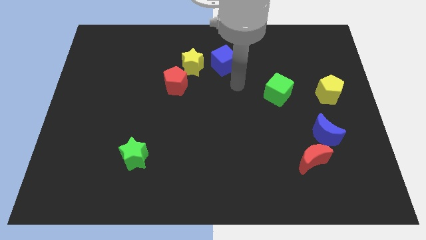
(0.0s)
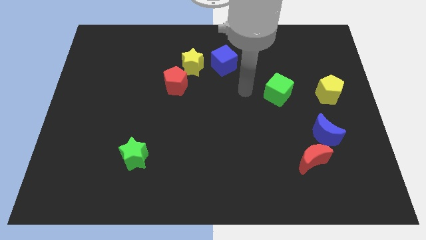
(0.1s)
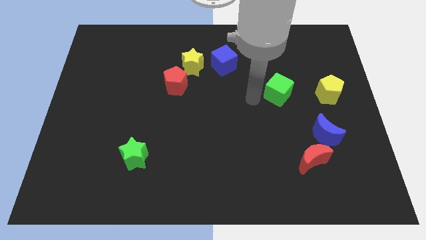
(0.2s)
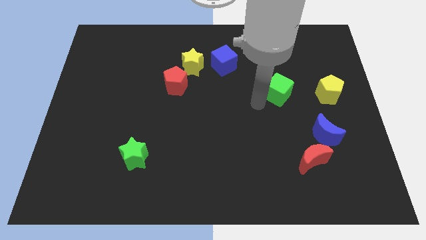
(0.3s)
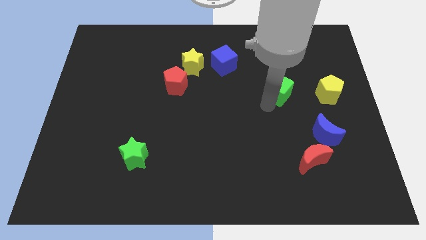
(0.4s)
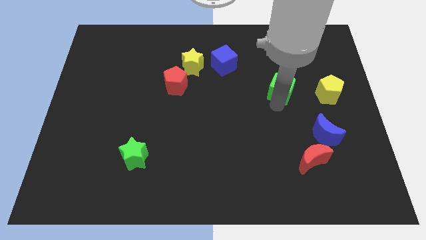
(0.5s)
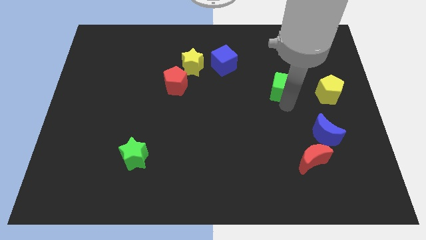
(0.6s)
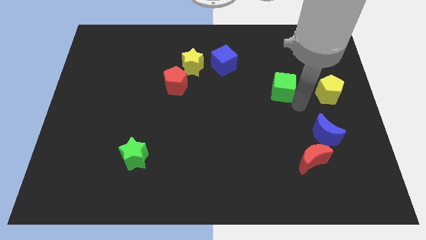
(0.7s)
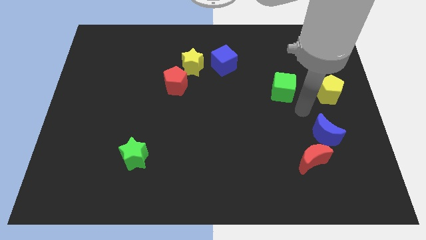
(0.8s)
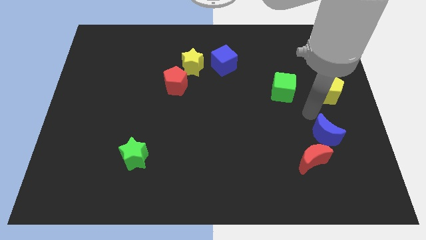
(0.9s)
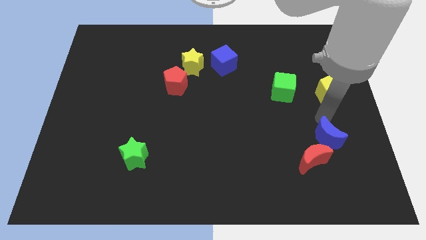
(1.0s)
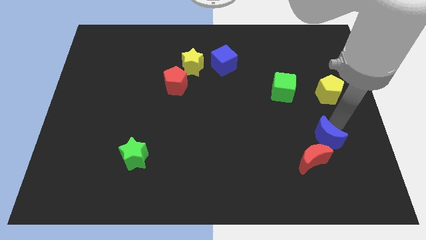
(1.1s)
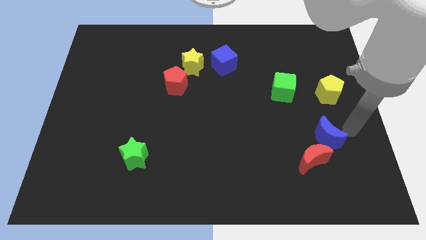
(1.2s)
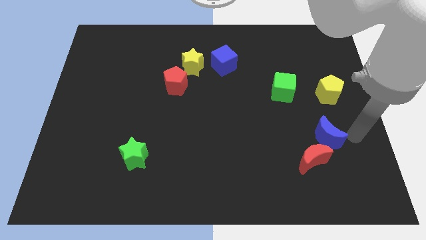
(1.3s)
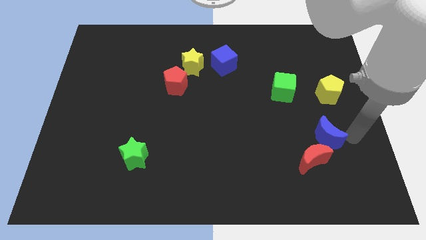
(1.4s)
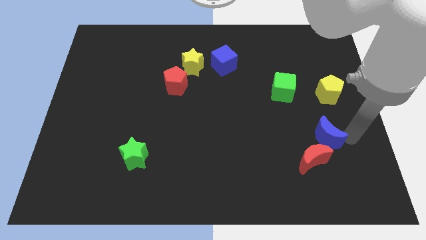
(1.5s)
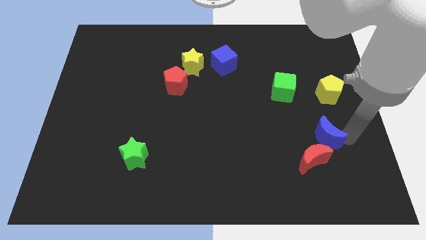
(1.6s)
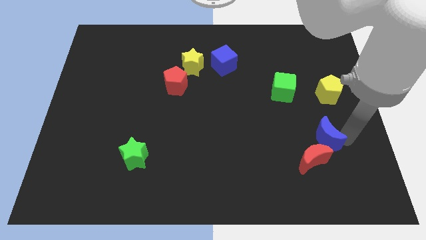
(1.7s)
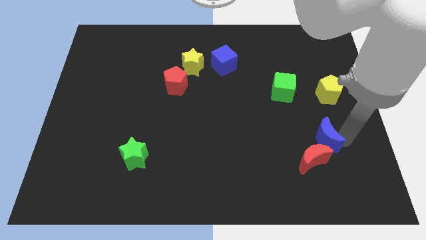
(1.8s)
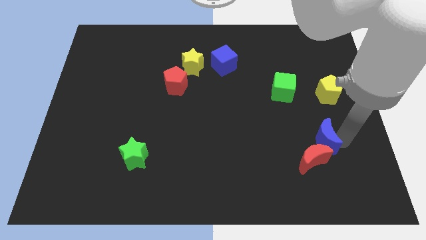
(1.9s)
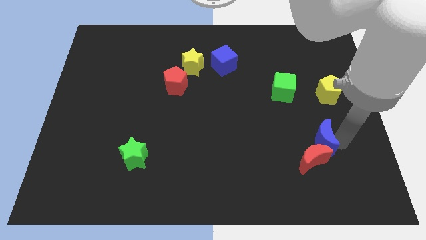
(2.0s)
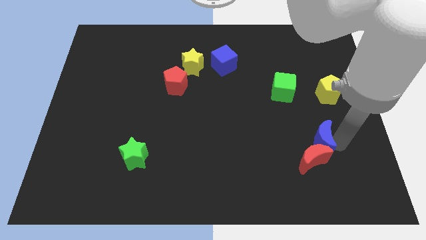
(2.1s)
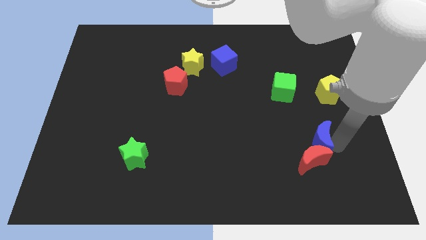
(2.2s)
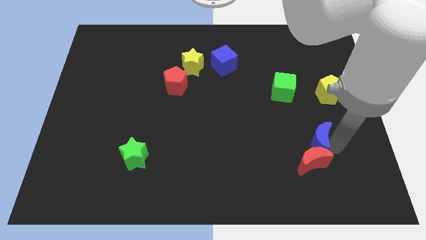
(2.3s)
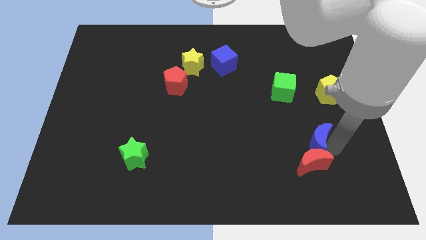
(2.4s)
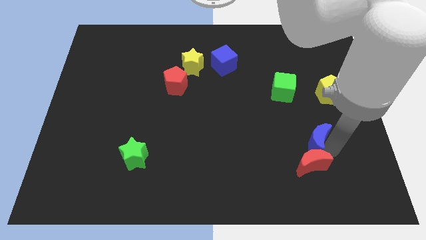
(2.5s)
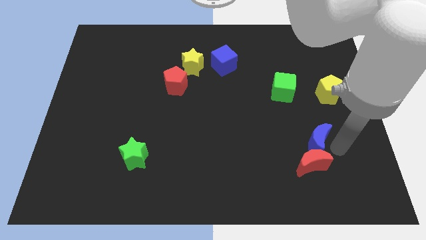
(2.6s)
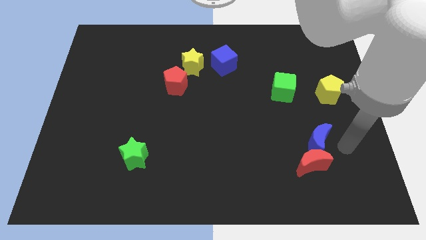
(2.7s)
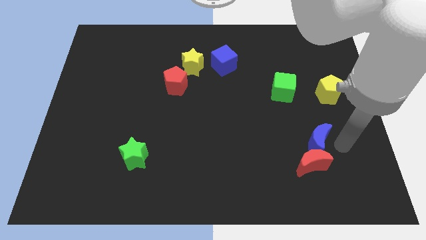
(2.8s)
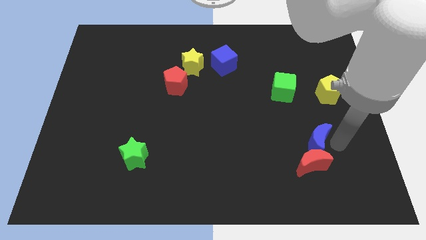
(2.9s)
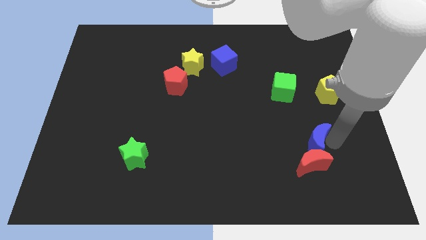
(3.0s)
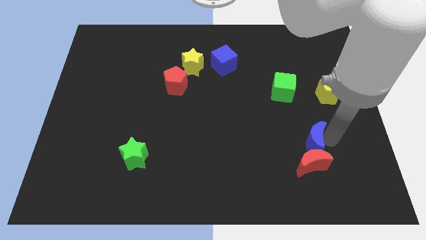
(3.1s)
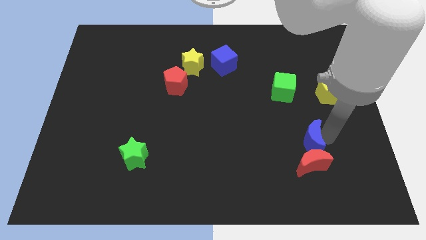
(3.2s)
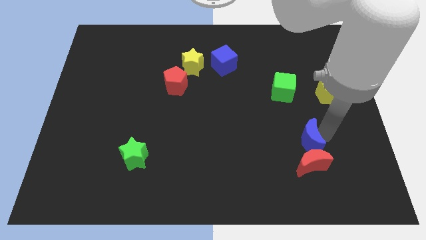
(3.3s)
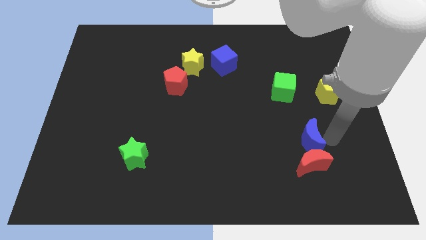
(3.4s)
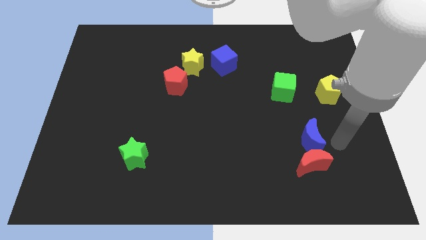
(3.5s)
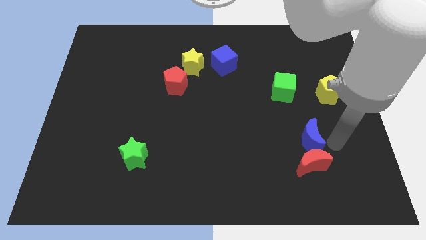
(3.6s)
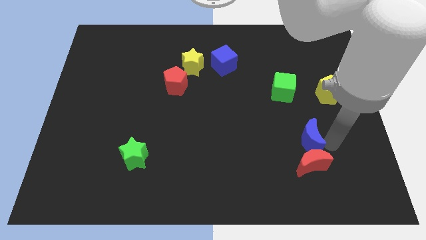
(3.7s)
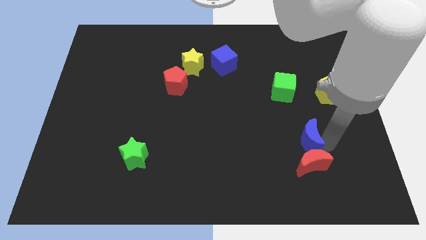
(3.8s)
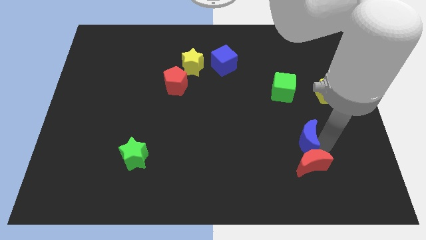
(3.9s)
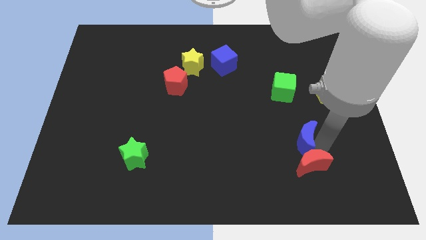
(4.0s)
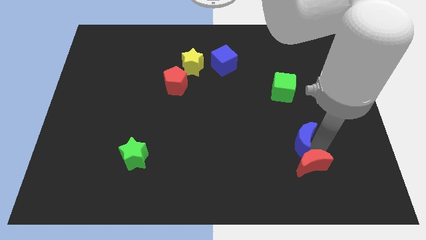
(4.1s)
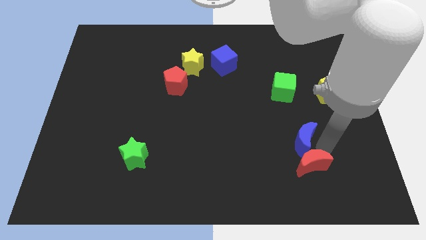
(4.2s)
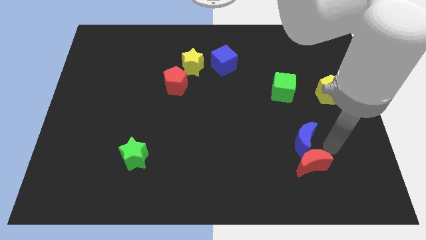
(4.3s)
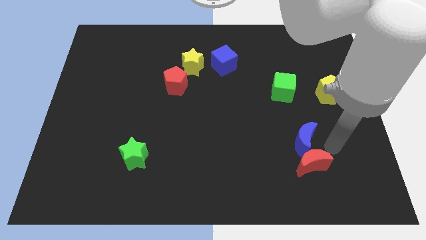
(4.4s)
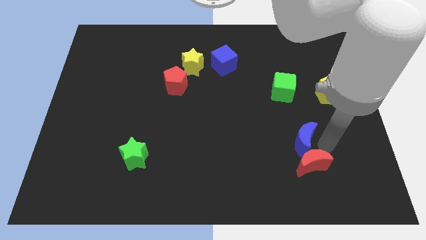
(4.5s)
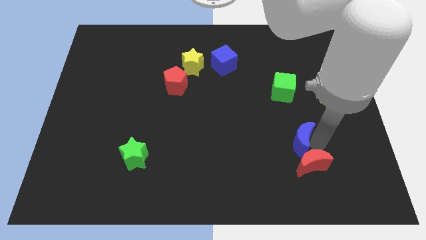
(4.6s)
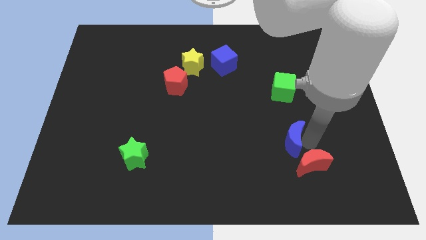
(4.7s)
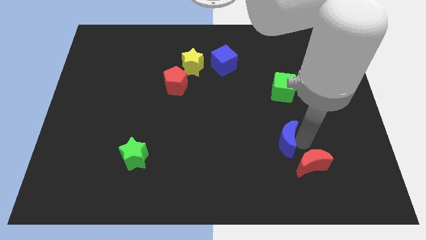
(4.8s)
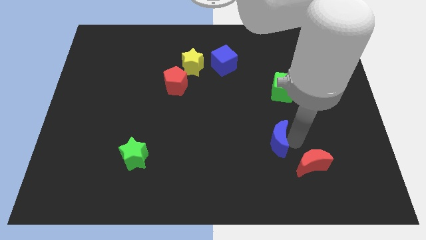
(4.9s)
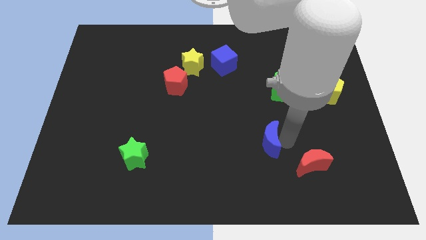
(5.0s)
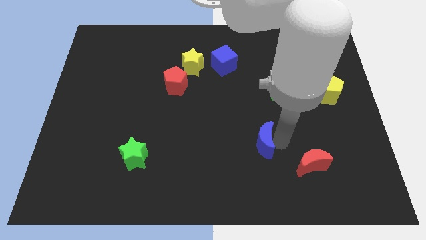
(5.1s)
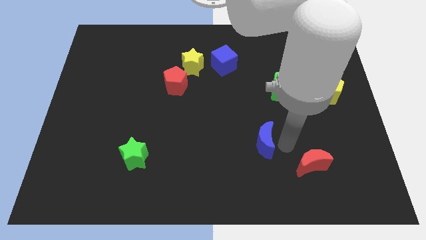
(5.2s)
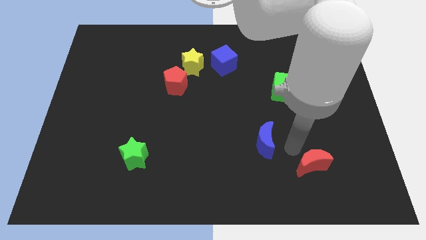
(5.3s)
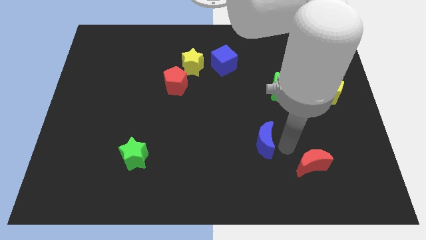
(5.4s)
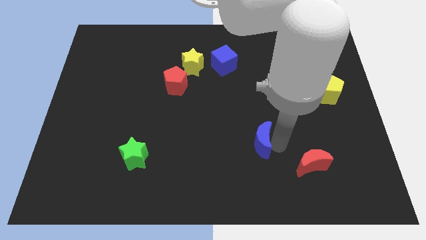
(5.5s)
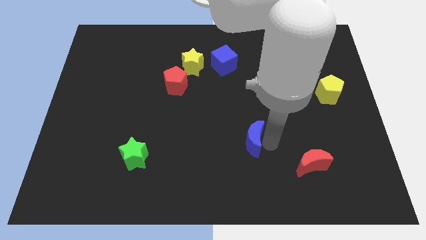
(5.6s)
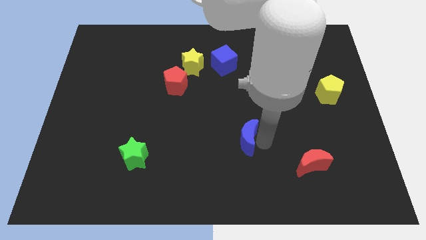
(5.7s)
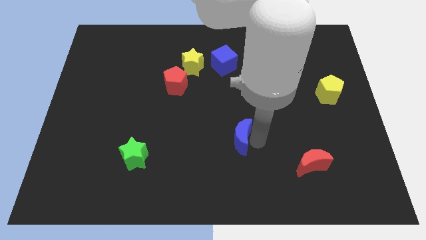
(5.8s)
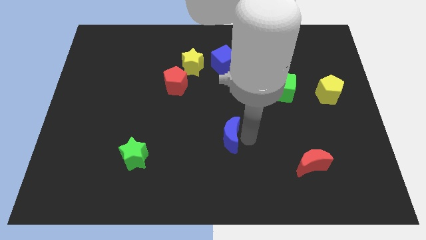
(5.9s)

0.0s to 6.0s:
slide the blue moon to the left

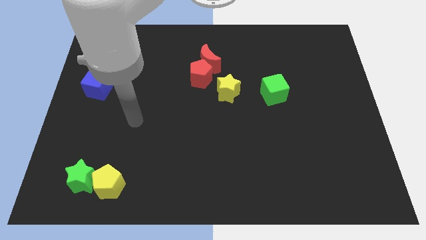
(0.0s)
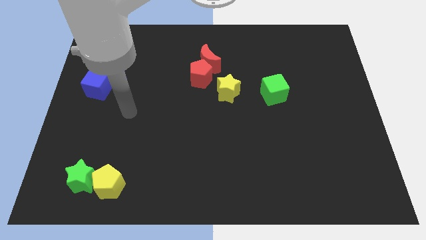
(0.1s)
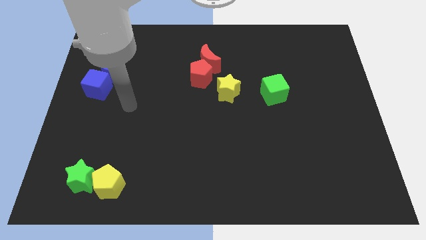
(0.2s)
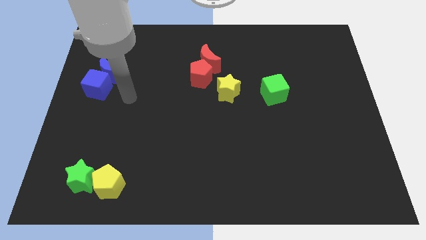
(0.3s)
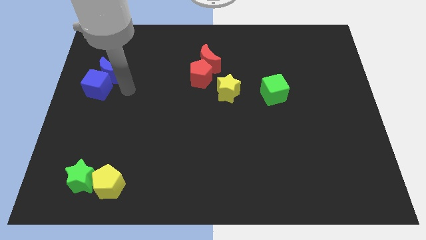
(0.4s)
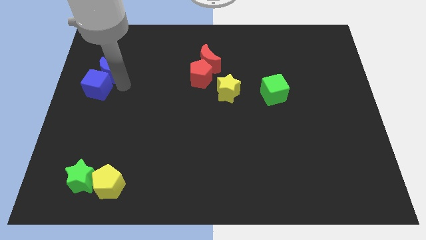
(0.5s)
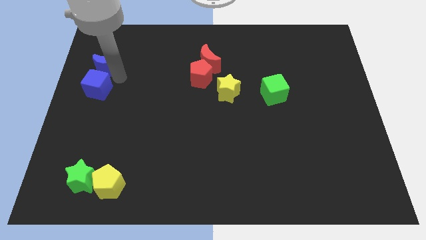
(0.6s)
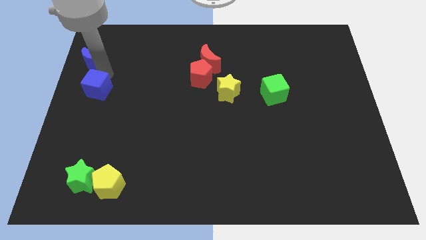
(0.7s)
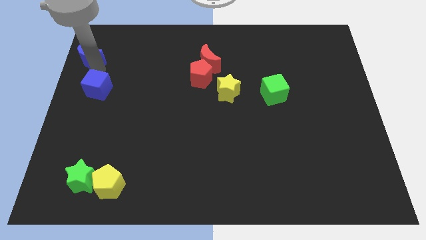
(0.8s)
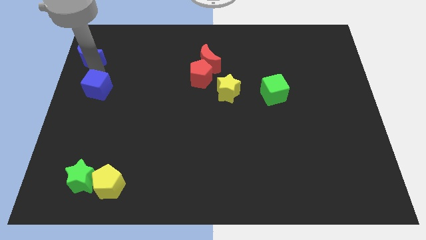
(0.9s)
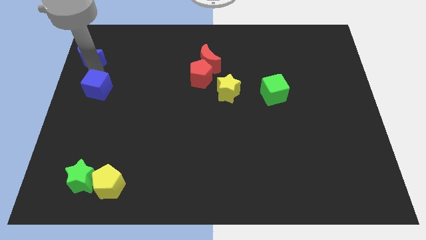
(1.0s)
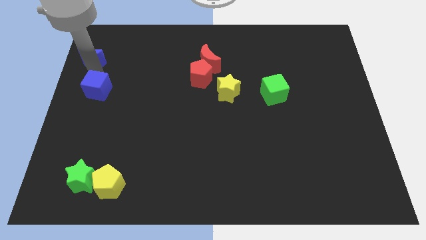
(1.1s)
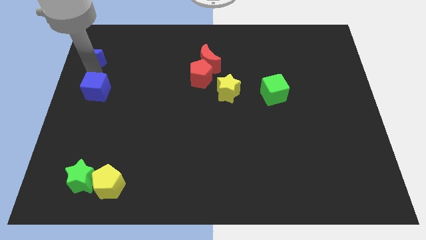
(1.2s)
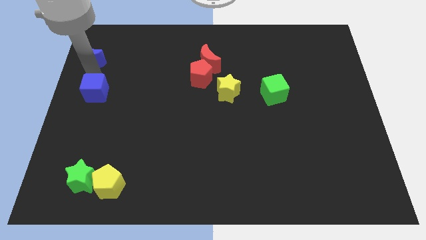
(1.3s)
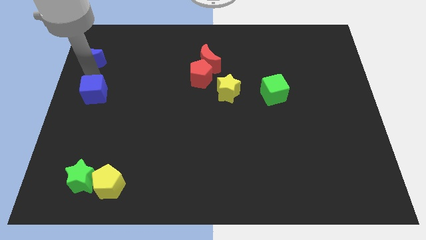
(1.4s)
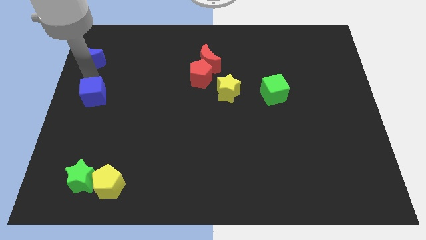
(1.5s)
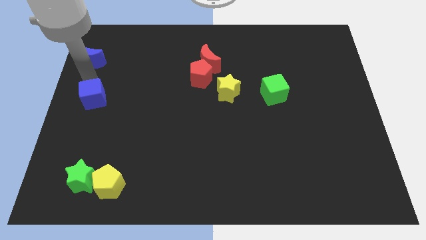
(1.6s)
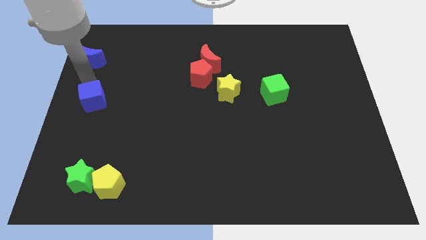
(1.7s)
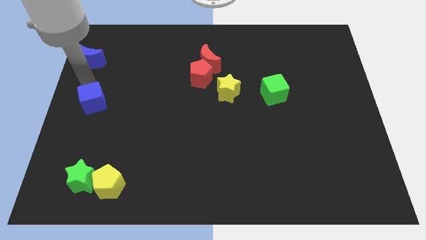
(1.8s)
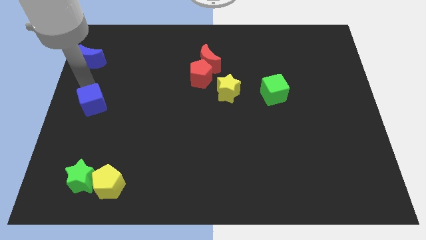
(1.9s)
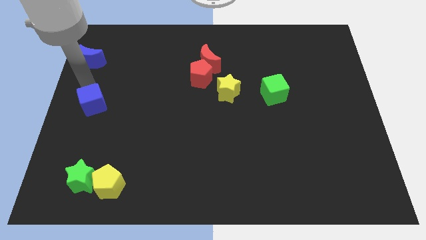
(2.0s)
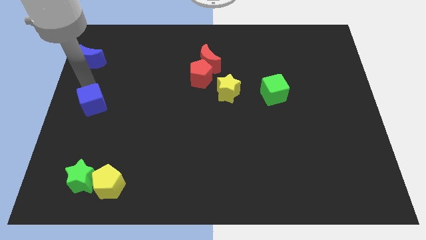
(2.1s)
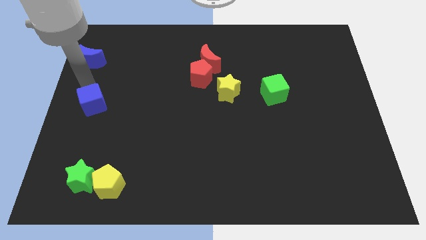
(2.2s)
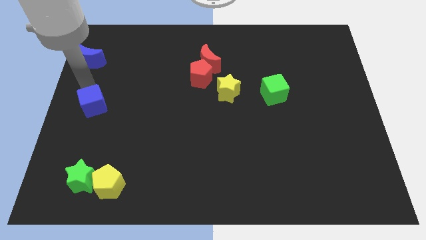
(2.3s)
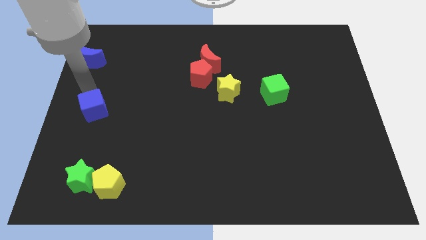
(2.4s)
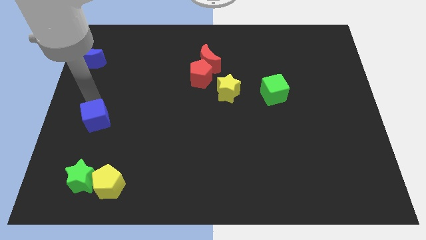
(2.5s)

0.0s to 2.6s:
move the blue cube down a bit
